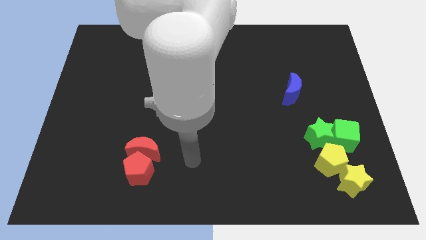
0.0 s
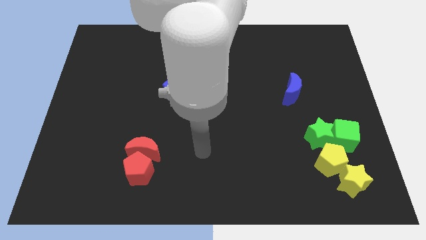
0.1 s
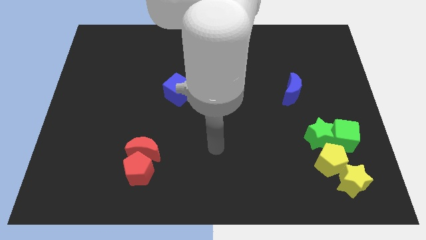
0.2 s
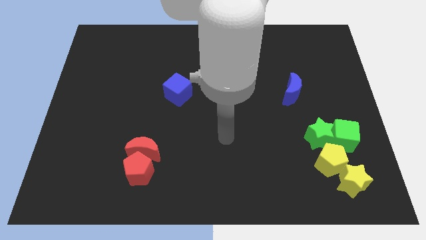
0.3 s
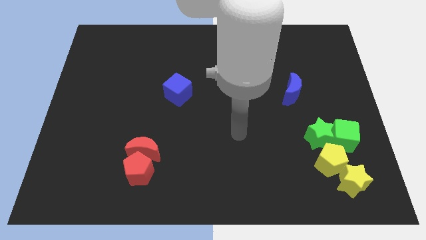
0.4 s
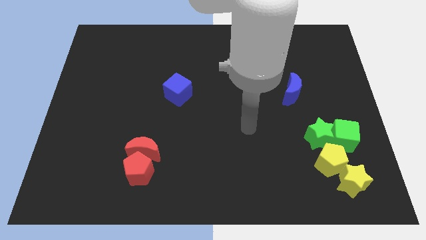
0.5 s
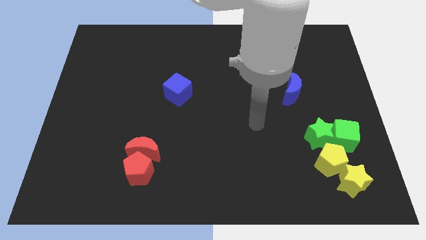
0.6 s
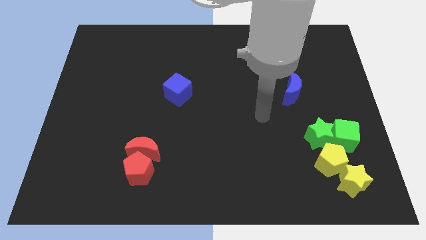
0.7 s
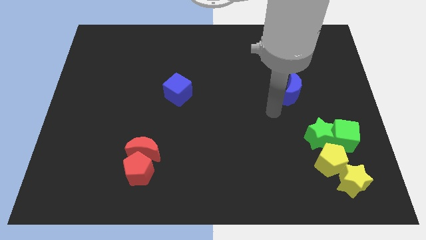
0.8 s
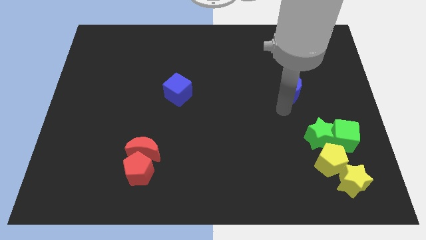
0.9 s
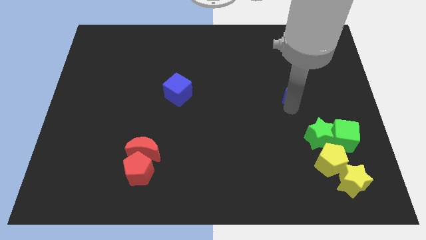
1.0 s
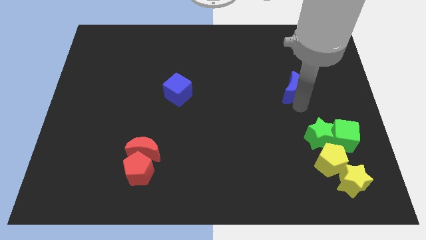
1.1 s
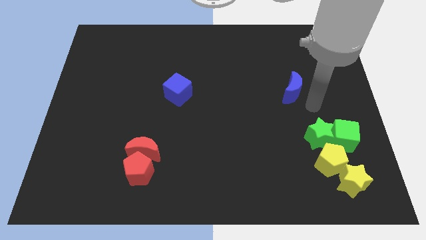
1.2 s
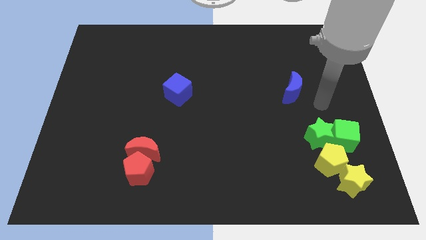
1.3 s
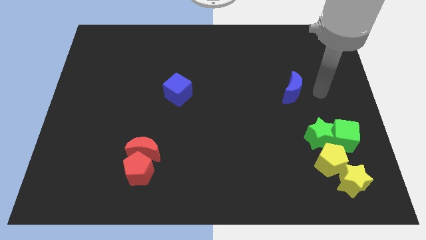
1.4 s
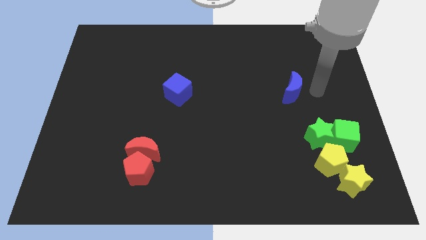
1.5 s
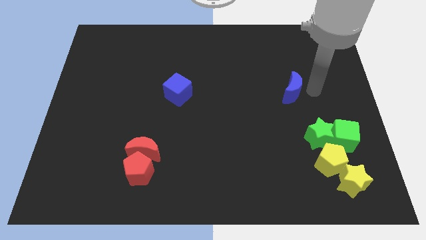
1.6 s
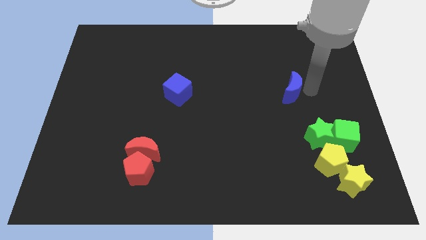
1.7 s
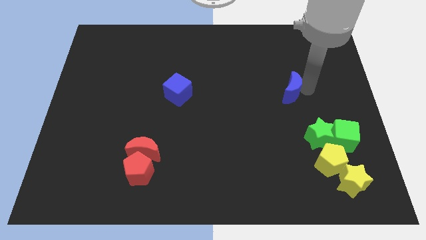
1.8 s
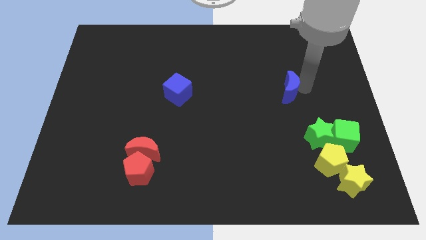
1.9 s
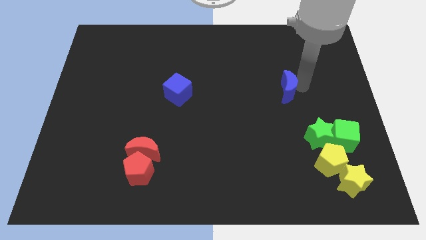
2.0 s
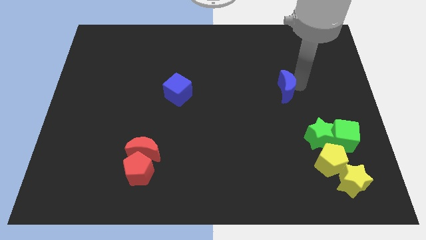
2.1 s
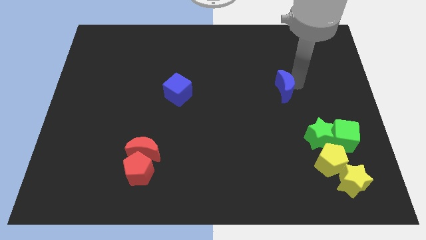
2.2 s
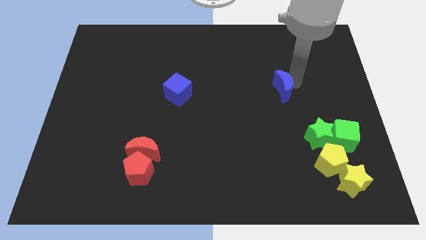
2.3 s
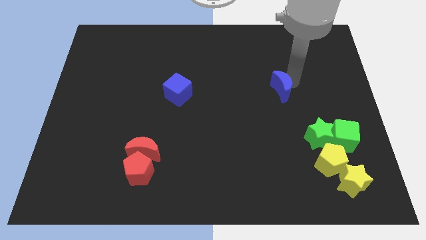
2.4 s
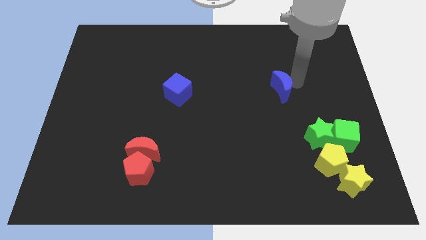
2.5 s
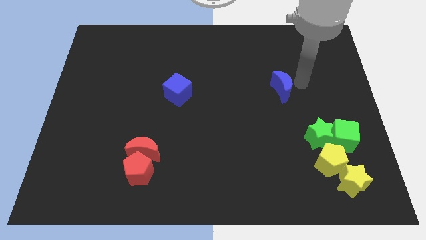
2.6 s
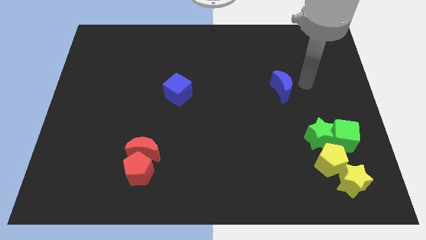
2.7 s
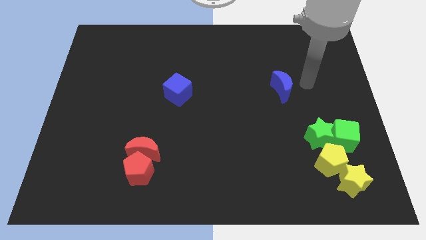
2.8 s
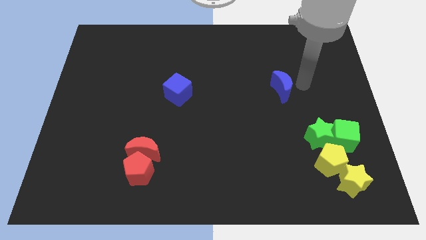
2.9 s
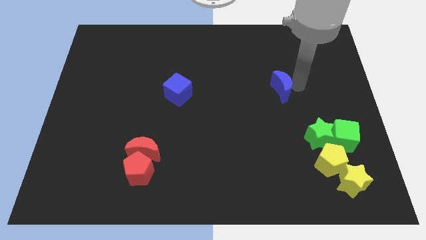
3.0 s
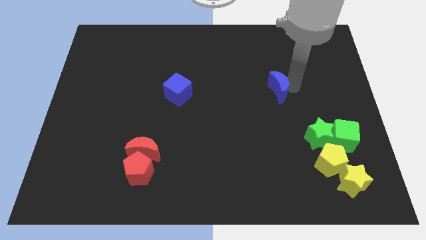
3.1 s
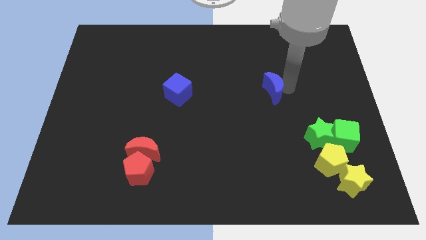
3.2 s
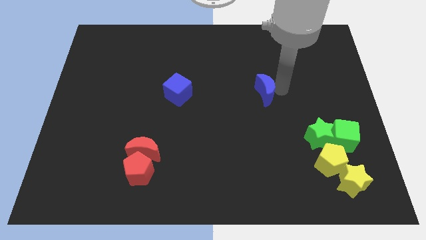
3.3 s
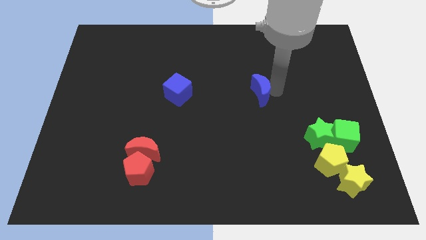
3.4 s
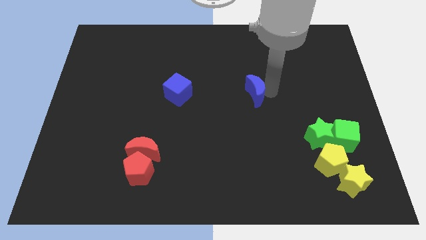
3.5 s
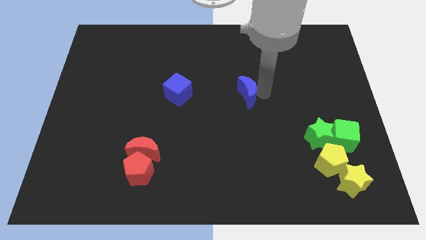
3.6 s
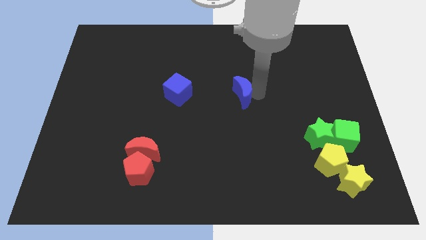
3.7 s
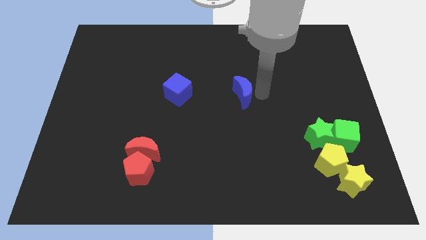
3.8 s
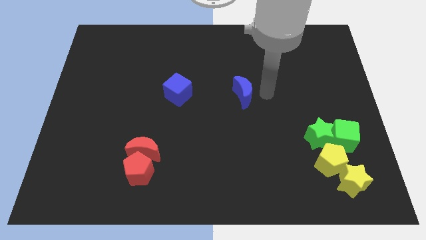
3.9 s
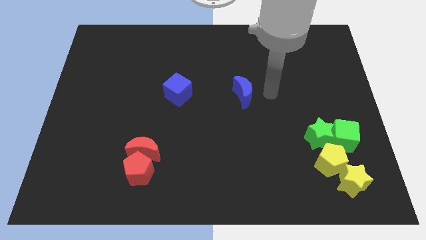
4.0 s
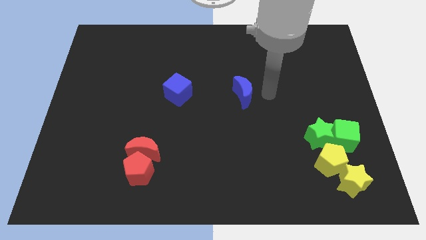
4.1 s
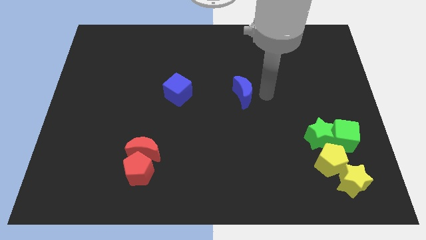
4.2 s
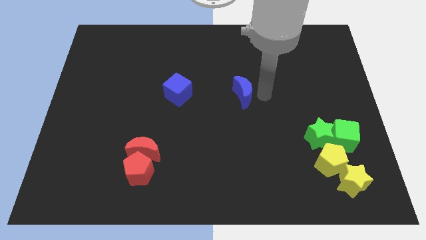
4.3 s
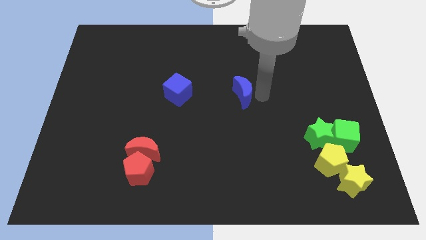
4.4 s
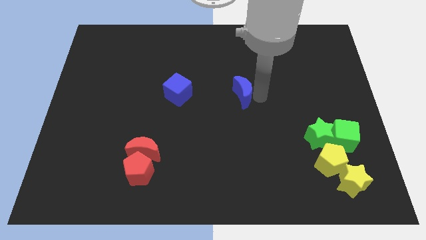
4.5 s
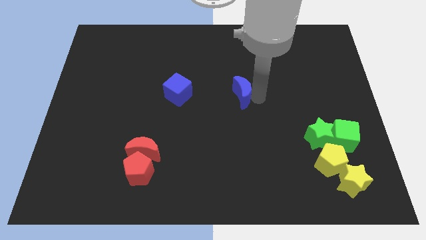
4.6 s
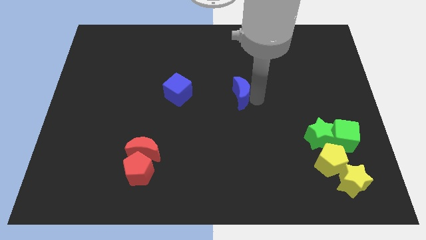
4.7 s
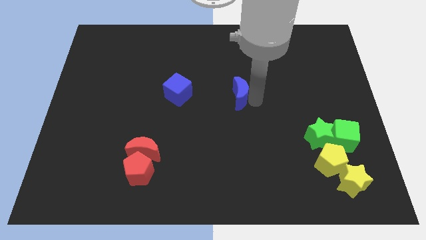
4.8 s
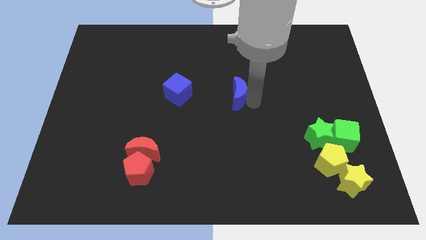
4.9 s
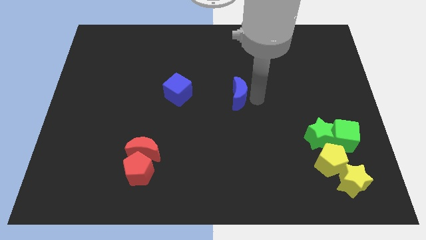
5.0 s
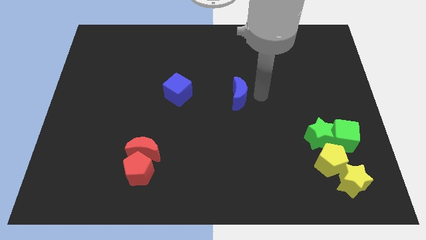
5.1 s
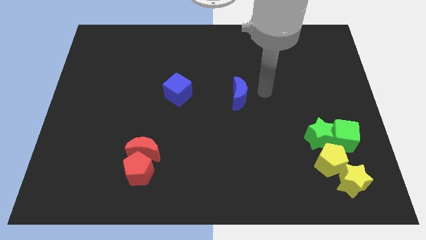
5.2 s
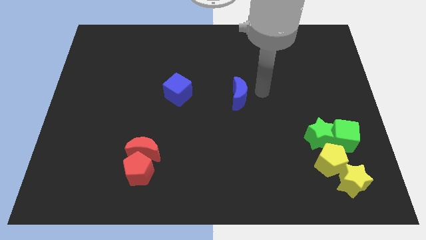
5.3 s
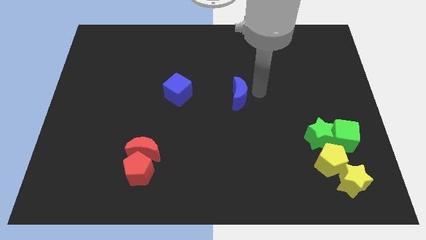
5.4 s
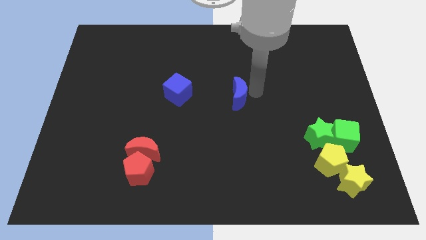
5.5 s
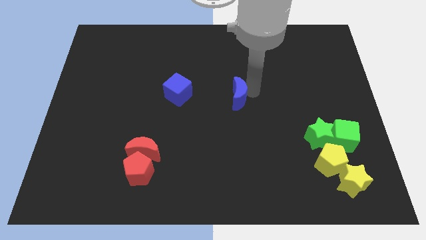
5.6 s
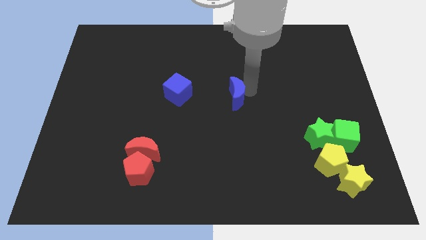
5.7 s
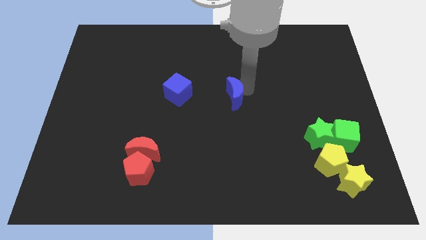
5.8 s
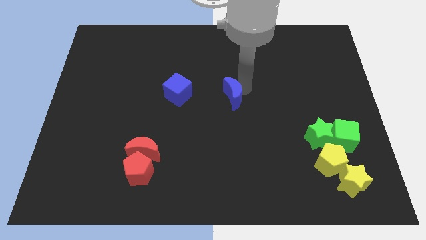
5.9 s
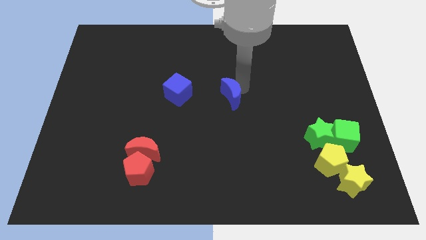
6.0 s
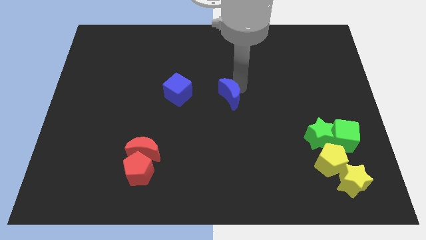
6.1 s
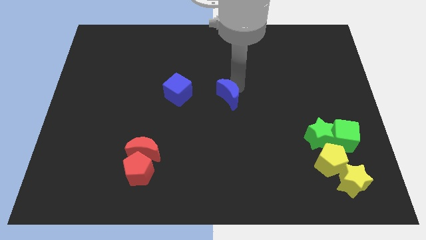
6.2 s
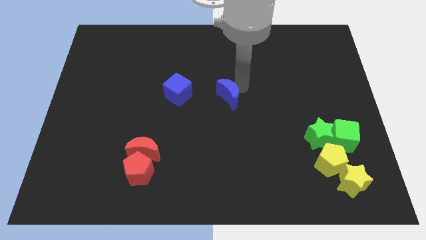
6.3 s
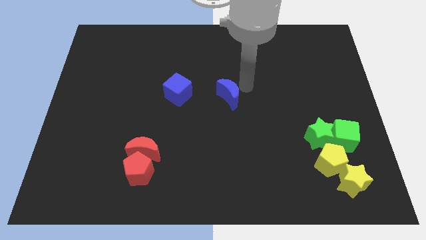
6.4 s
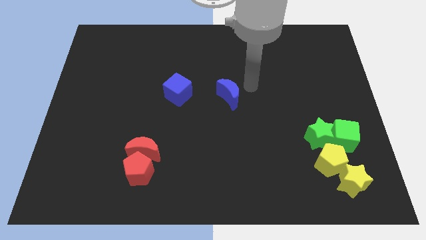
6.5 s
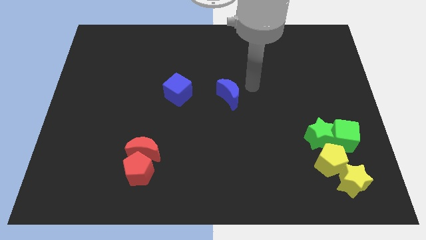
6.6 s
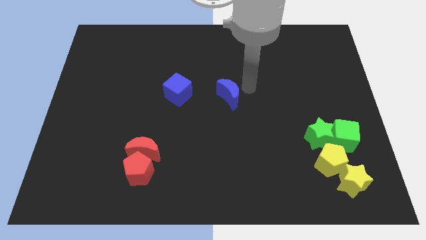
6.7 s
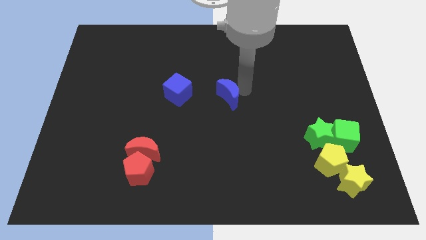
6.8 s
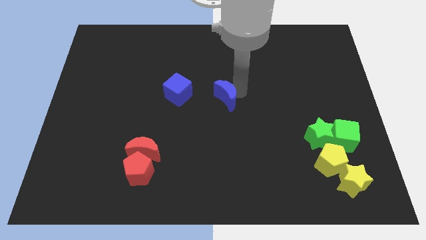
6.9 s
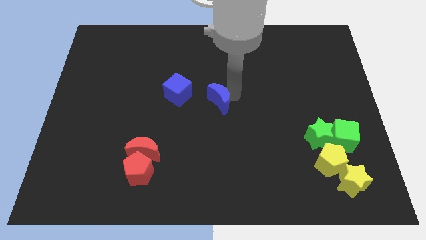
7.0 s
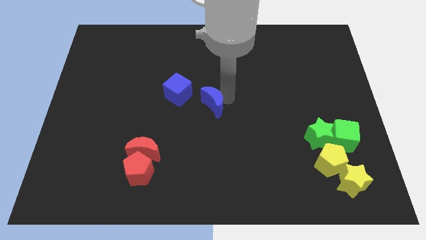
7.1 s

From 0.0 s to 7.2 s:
put the blue moon diagonally down and to the right of the blue cube

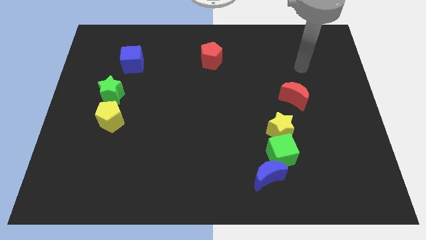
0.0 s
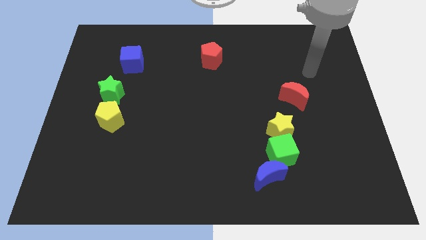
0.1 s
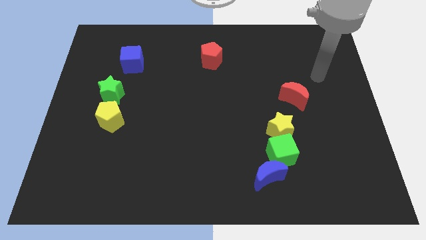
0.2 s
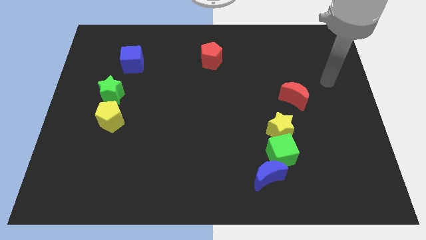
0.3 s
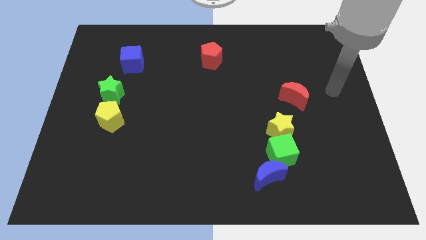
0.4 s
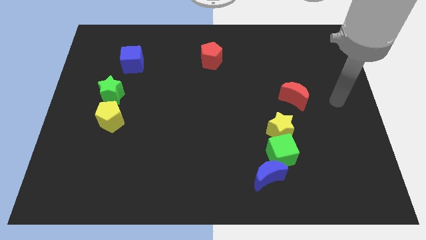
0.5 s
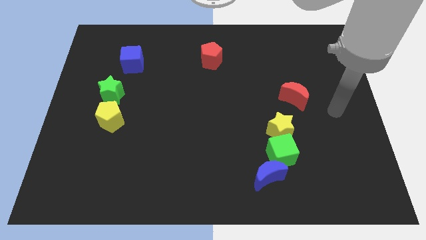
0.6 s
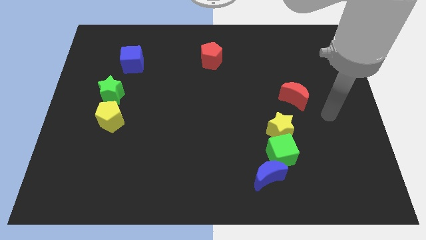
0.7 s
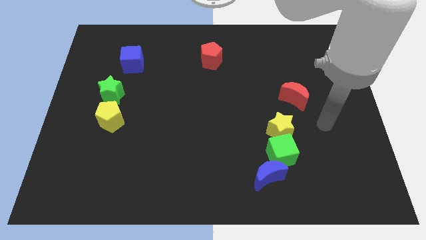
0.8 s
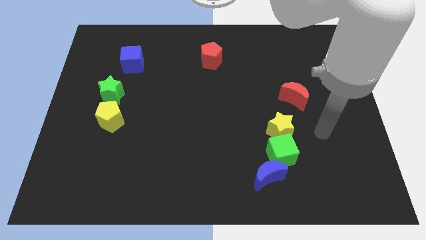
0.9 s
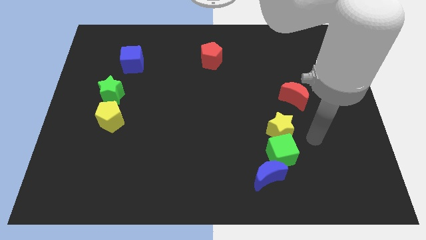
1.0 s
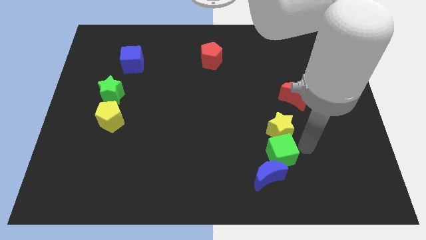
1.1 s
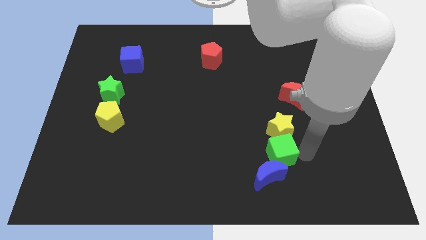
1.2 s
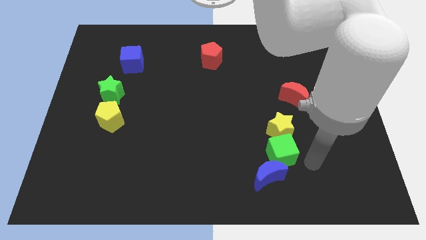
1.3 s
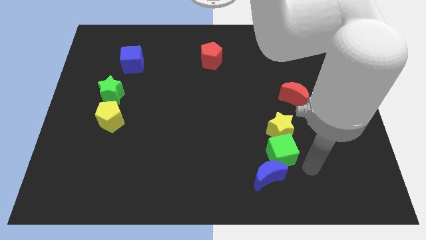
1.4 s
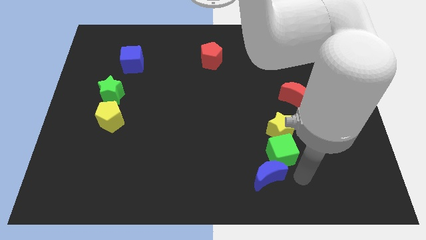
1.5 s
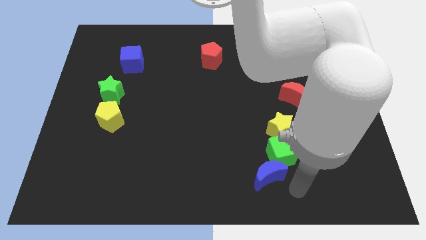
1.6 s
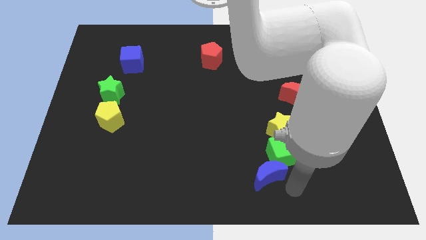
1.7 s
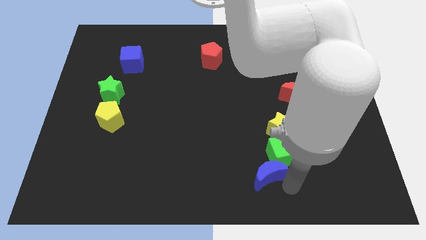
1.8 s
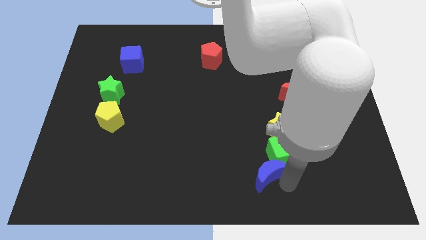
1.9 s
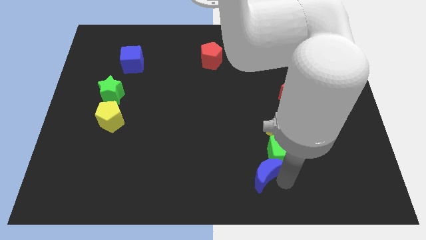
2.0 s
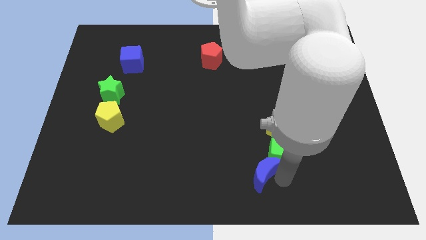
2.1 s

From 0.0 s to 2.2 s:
move the blue moon left of the green cube
